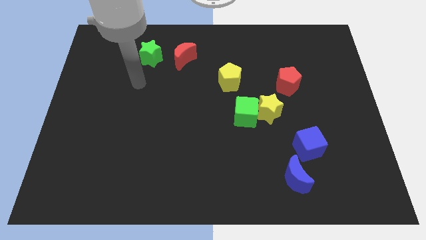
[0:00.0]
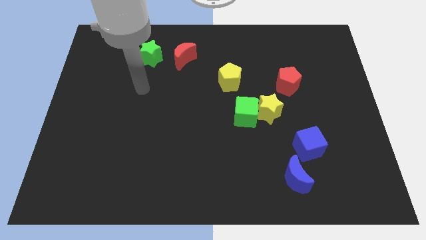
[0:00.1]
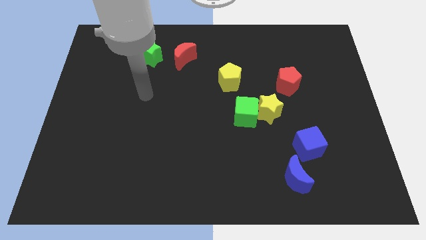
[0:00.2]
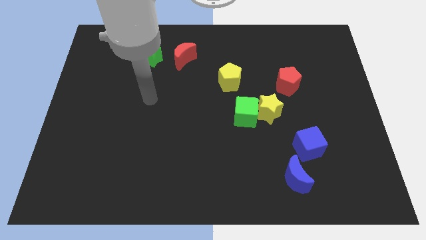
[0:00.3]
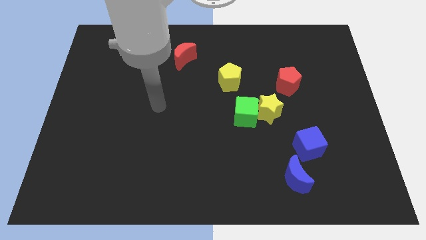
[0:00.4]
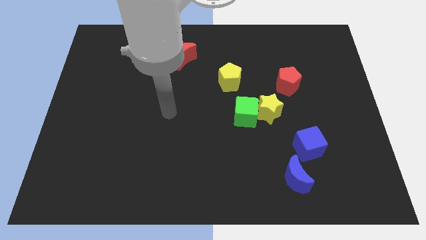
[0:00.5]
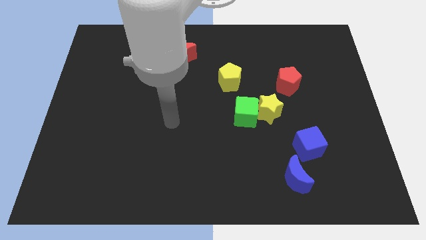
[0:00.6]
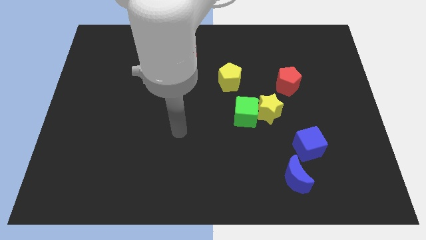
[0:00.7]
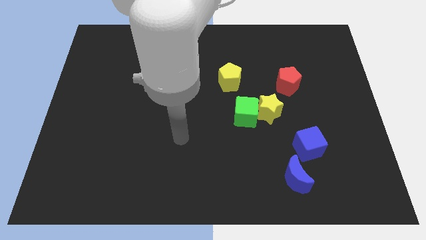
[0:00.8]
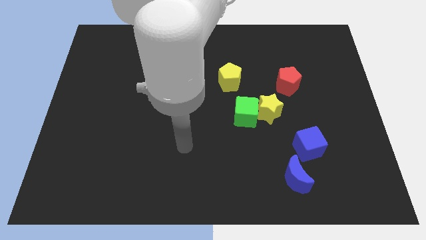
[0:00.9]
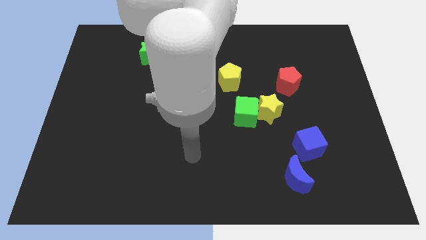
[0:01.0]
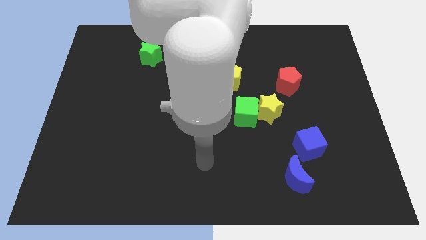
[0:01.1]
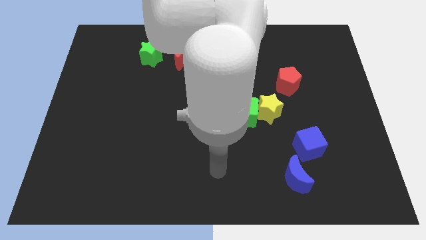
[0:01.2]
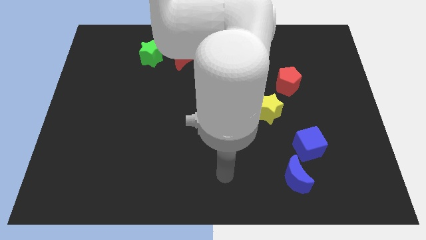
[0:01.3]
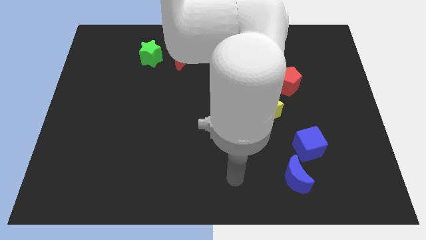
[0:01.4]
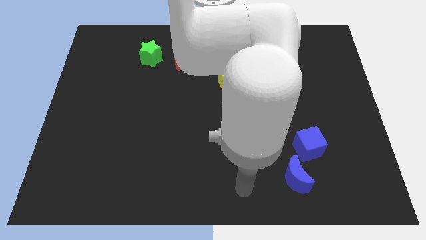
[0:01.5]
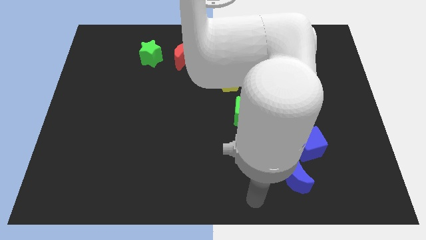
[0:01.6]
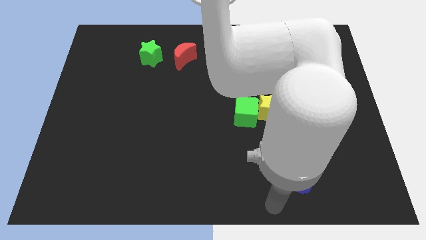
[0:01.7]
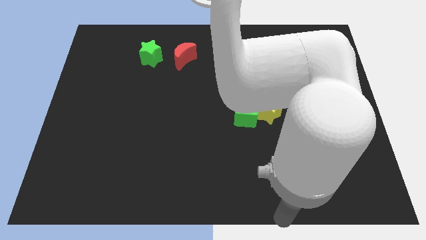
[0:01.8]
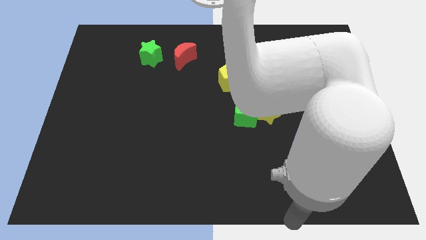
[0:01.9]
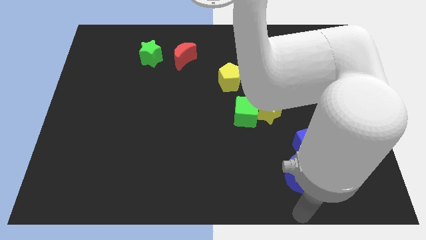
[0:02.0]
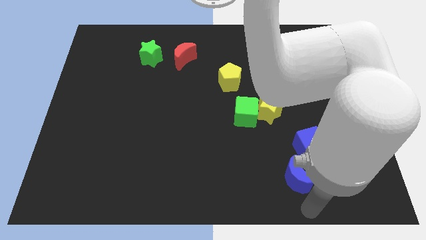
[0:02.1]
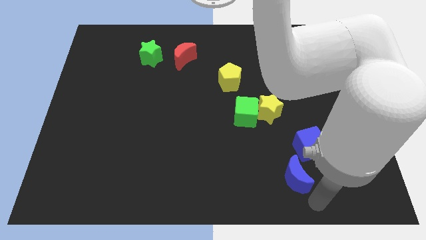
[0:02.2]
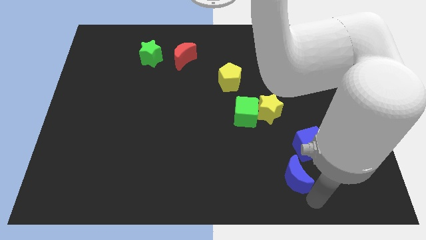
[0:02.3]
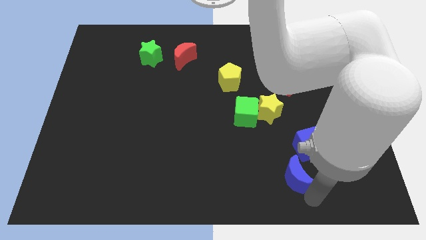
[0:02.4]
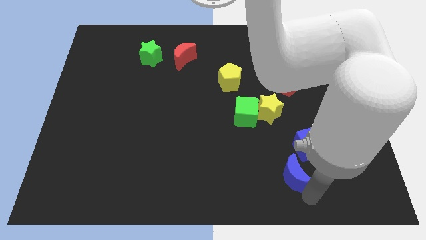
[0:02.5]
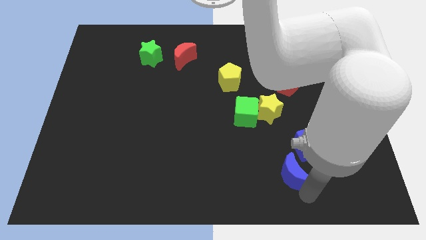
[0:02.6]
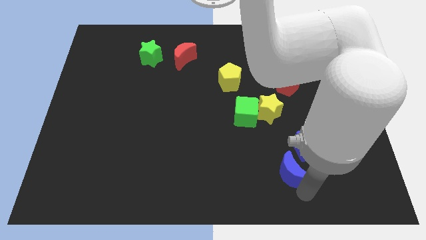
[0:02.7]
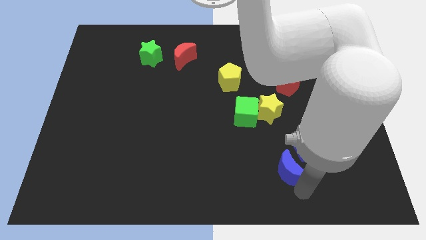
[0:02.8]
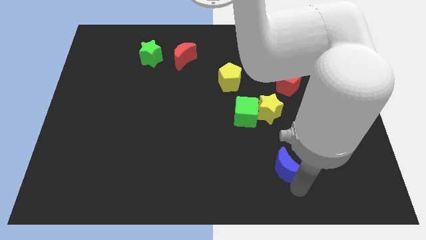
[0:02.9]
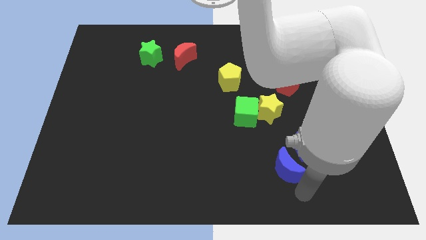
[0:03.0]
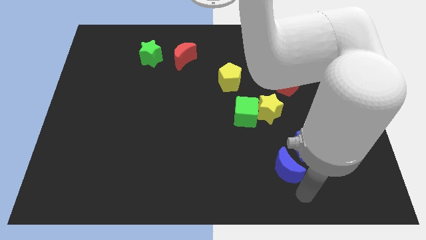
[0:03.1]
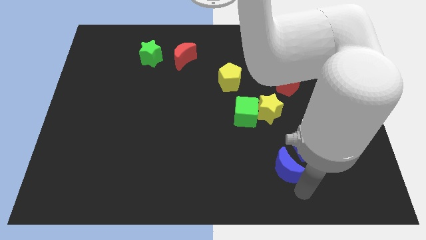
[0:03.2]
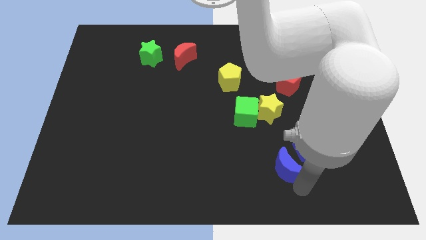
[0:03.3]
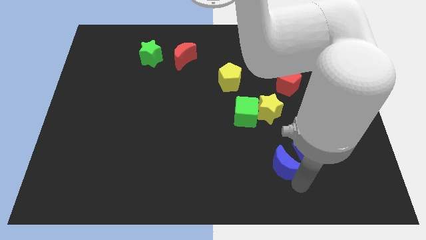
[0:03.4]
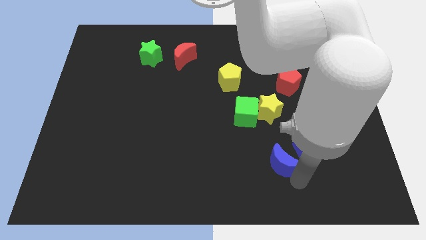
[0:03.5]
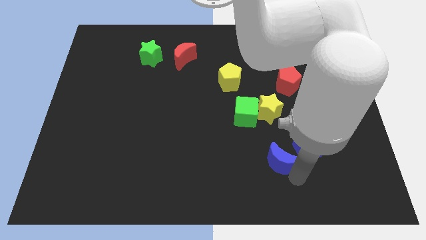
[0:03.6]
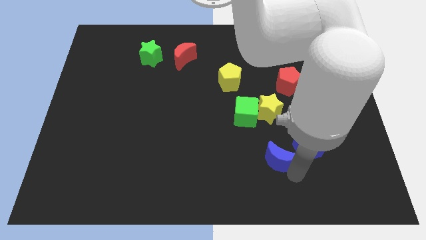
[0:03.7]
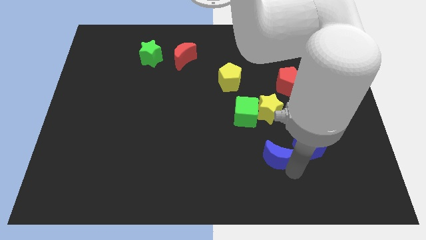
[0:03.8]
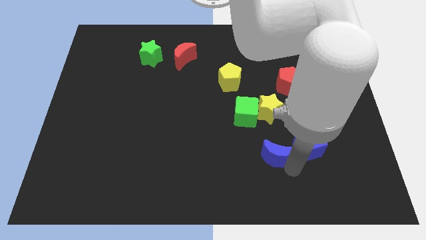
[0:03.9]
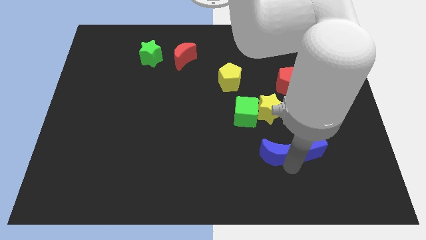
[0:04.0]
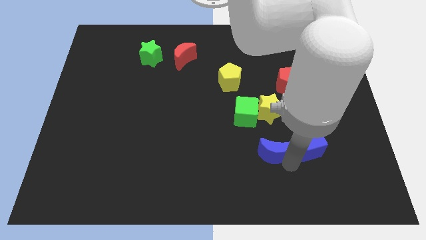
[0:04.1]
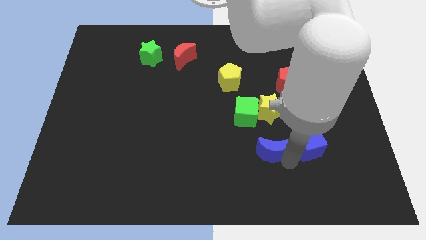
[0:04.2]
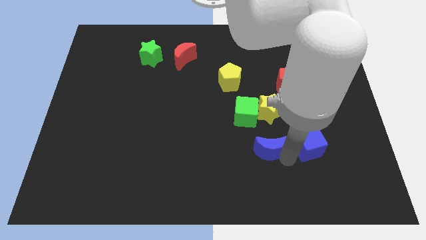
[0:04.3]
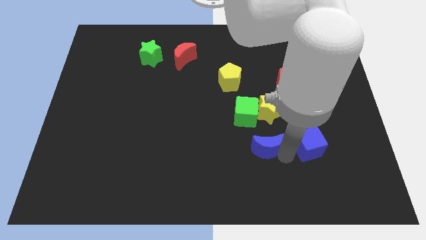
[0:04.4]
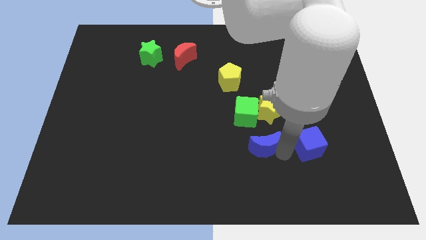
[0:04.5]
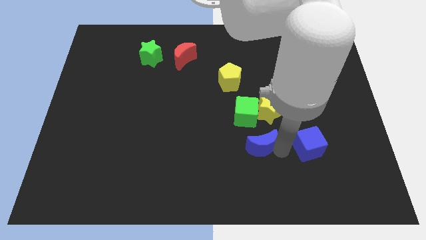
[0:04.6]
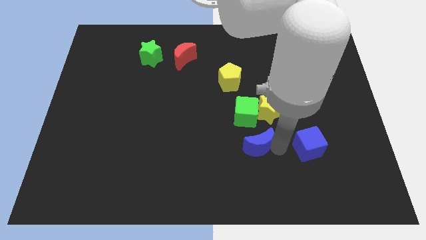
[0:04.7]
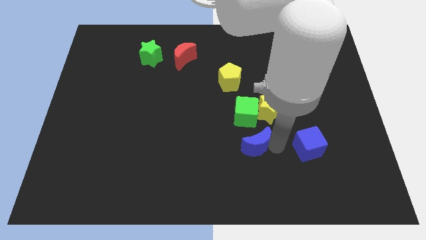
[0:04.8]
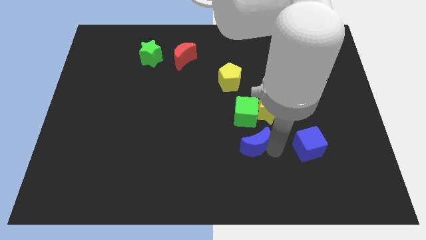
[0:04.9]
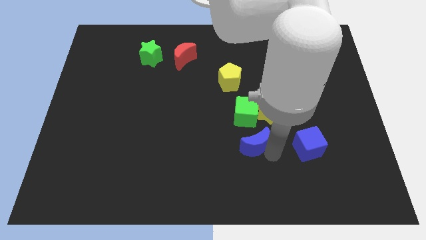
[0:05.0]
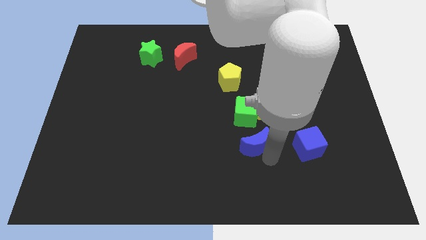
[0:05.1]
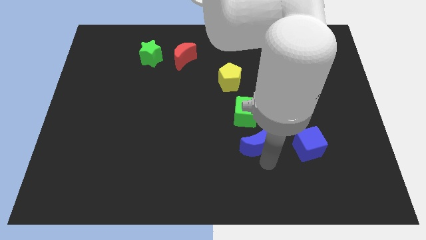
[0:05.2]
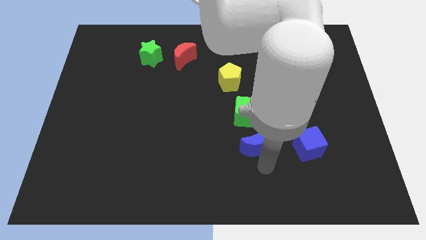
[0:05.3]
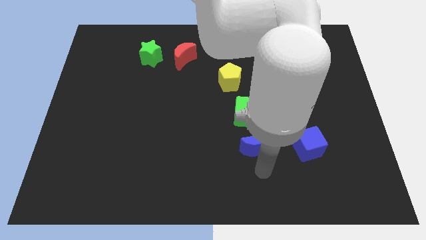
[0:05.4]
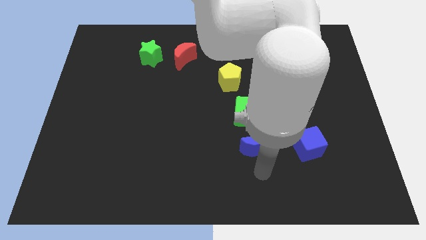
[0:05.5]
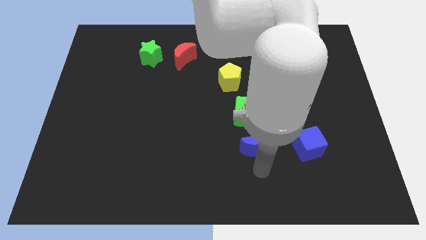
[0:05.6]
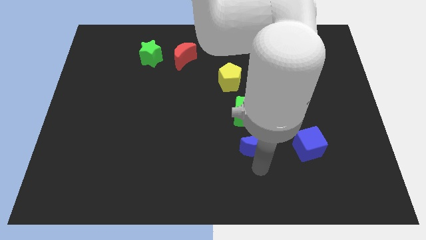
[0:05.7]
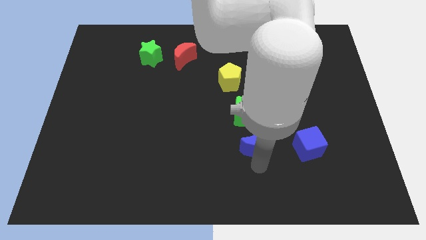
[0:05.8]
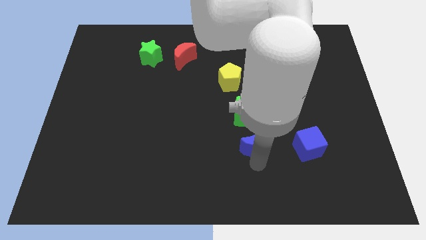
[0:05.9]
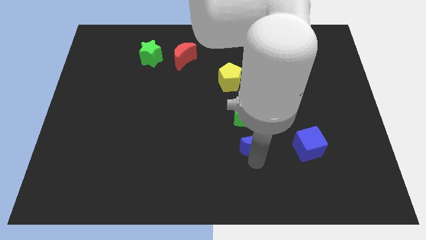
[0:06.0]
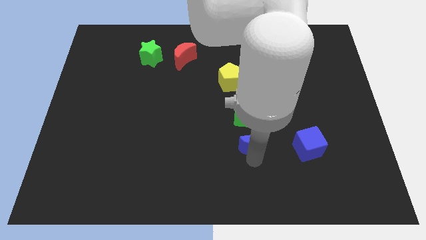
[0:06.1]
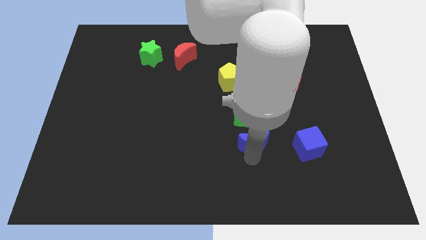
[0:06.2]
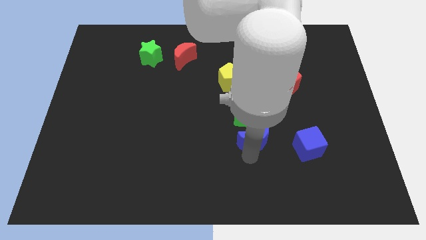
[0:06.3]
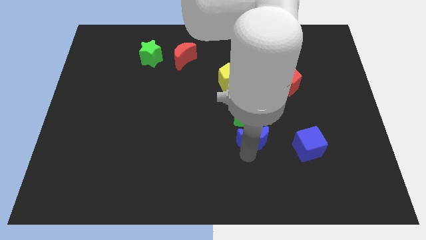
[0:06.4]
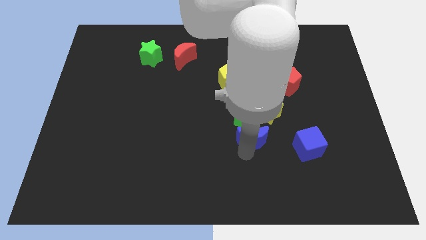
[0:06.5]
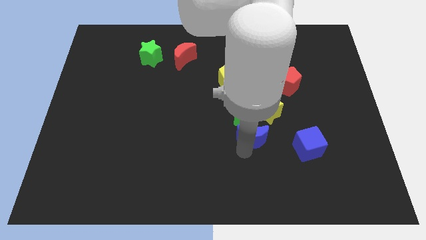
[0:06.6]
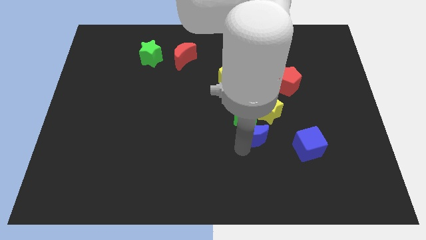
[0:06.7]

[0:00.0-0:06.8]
push the blue moon to the green cube

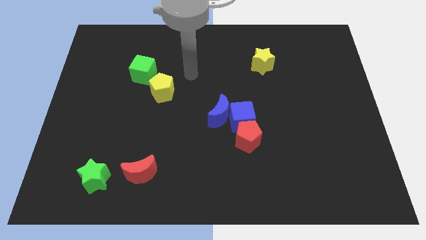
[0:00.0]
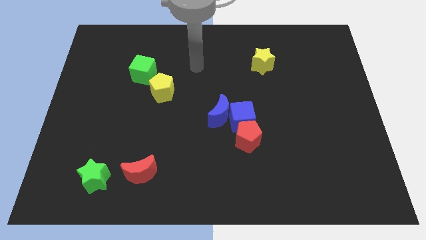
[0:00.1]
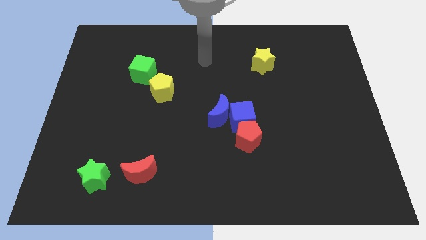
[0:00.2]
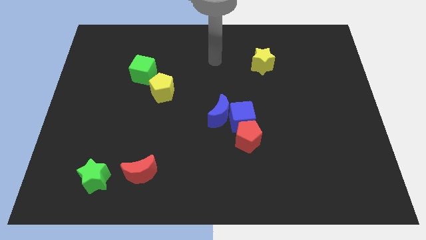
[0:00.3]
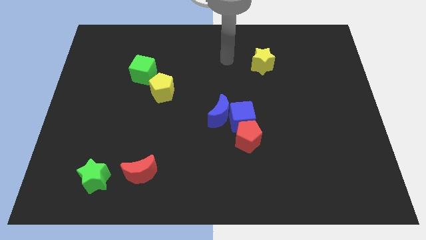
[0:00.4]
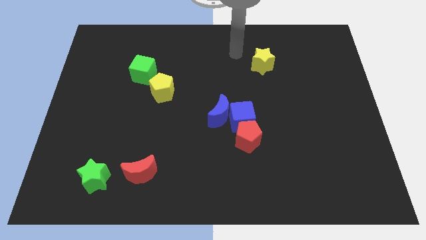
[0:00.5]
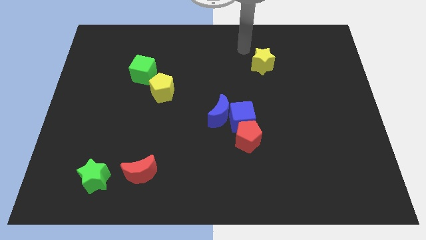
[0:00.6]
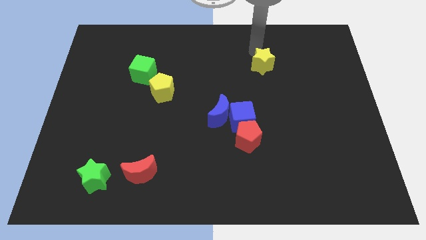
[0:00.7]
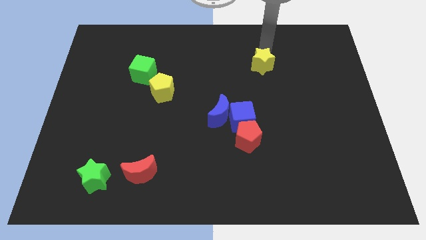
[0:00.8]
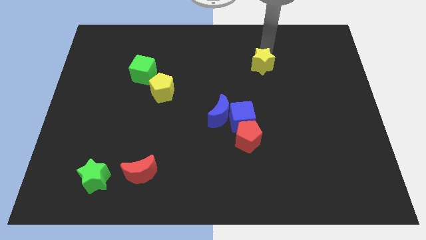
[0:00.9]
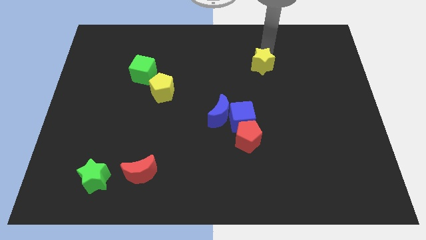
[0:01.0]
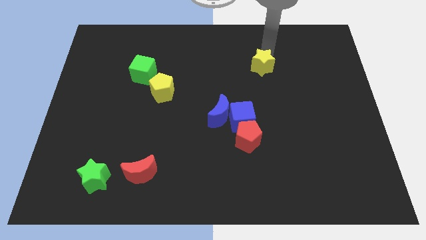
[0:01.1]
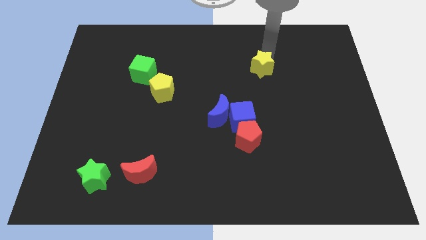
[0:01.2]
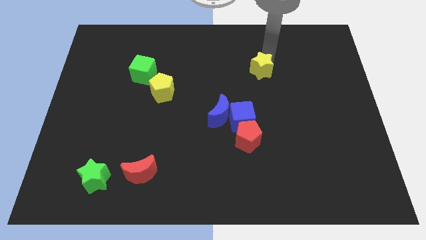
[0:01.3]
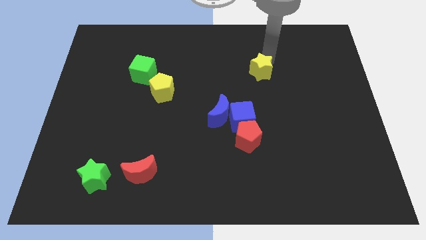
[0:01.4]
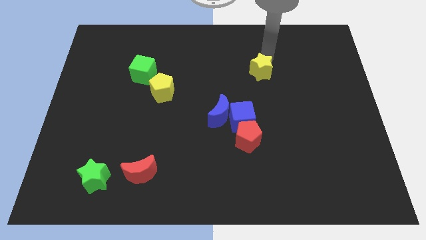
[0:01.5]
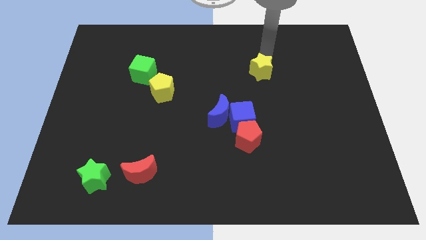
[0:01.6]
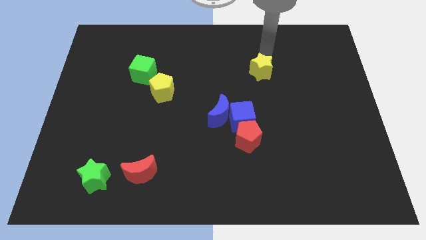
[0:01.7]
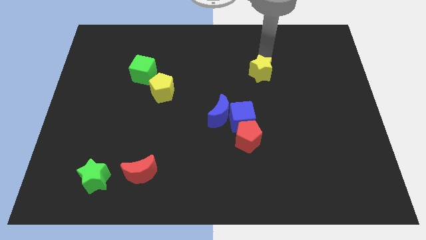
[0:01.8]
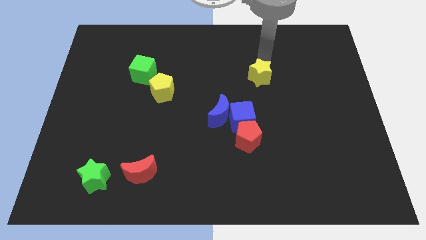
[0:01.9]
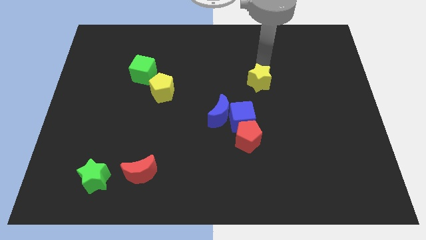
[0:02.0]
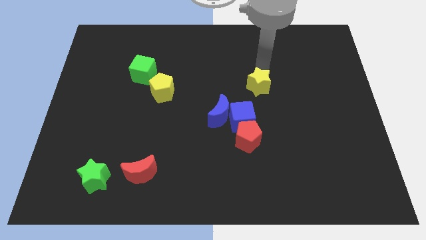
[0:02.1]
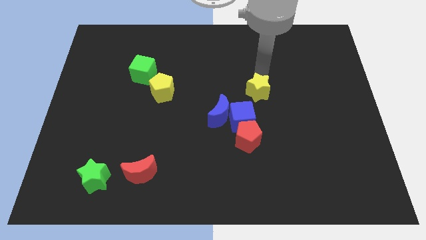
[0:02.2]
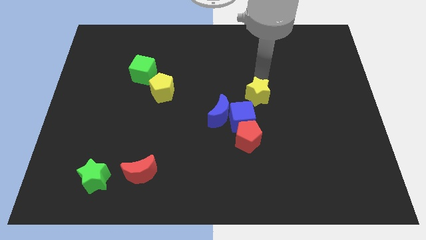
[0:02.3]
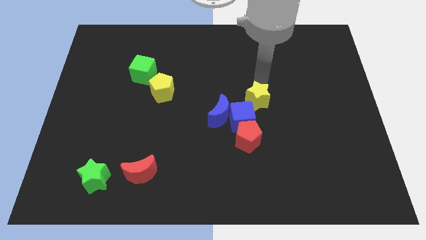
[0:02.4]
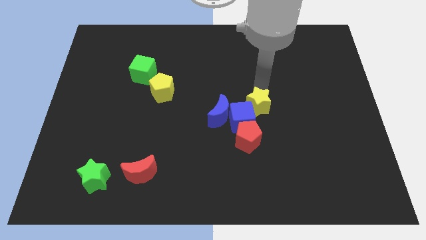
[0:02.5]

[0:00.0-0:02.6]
put the yellow star close to the blue cube
